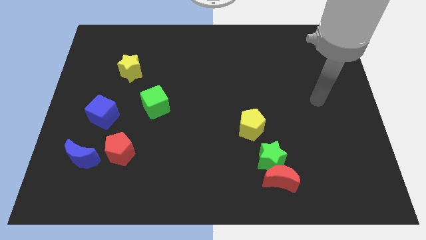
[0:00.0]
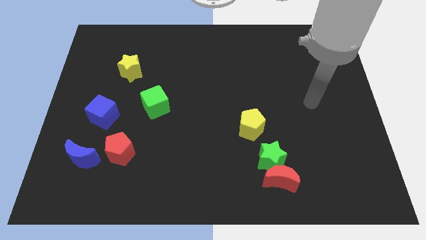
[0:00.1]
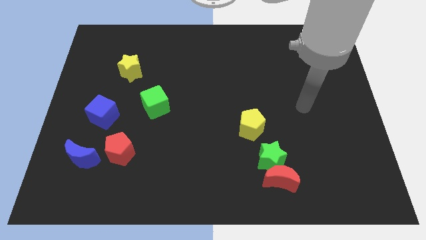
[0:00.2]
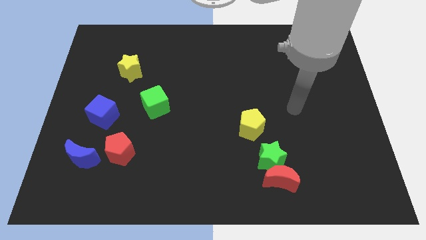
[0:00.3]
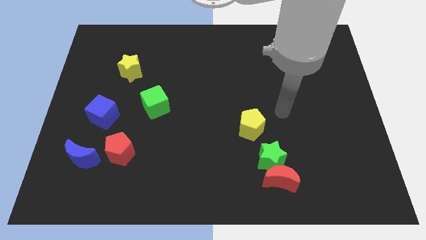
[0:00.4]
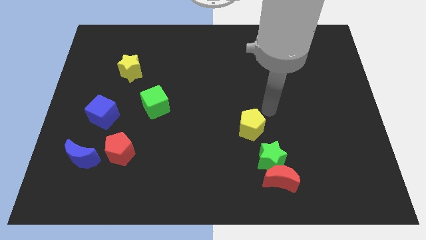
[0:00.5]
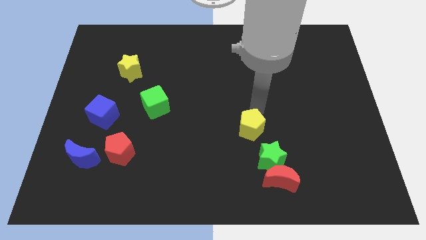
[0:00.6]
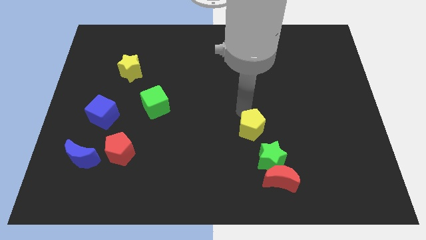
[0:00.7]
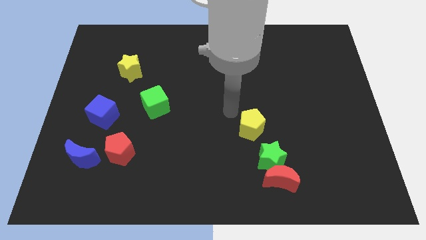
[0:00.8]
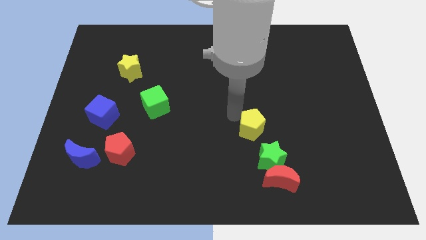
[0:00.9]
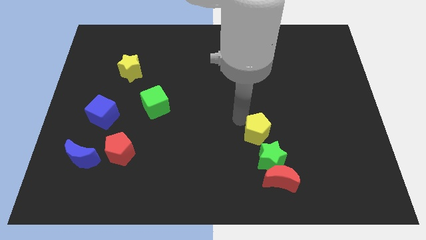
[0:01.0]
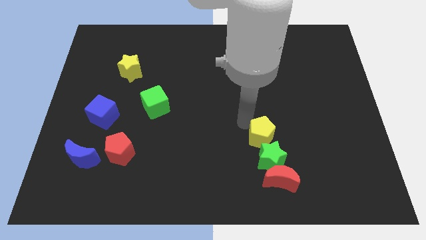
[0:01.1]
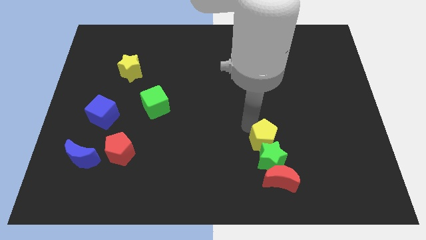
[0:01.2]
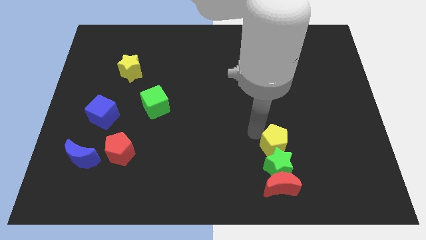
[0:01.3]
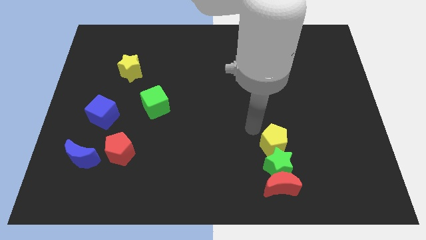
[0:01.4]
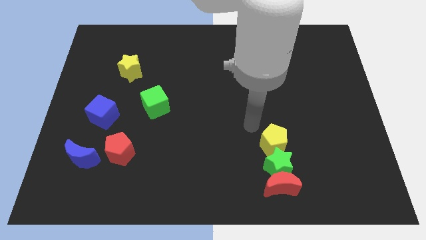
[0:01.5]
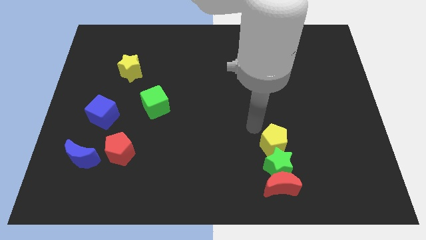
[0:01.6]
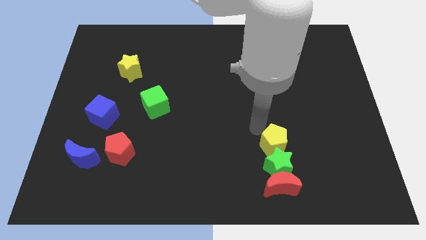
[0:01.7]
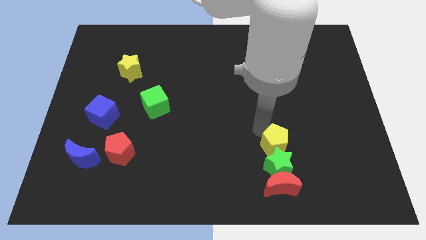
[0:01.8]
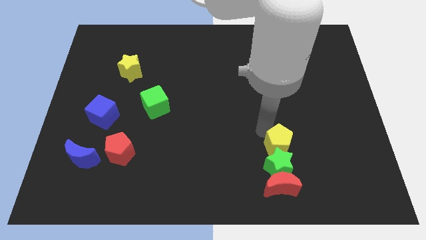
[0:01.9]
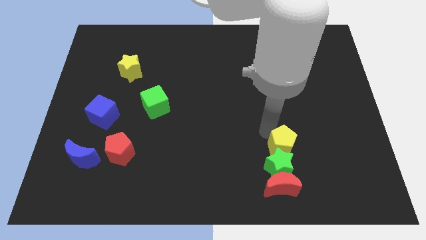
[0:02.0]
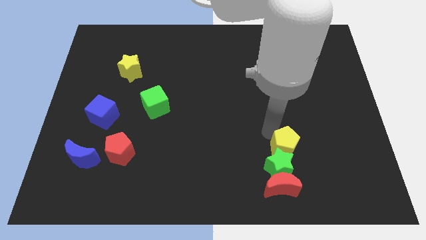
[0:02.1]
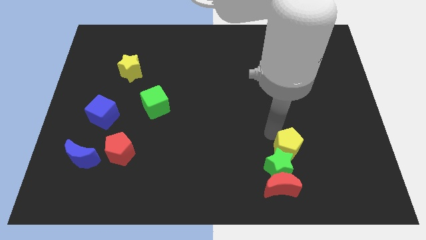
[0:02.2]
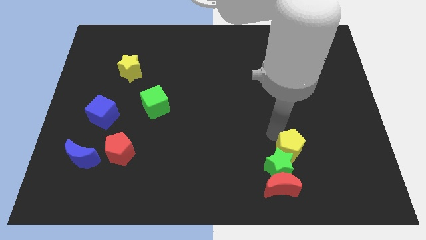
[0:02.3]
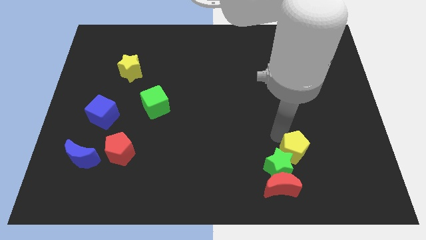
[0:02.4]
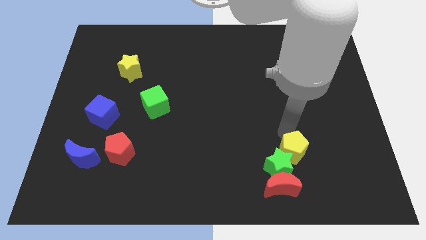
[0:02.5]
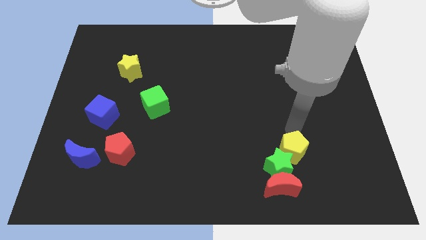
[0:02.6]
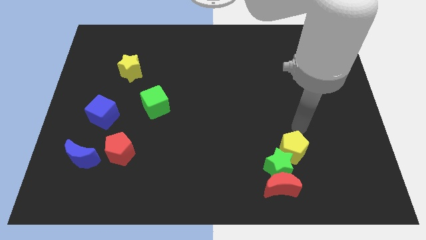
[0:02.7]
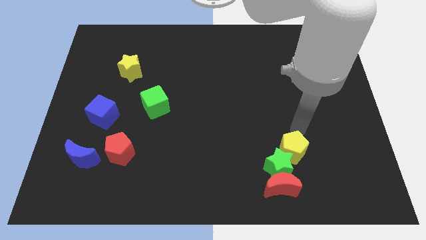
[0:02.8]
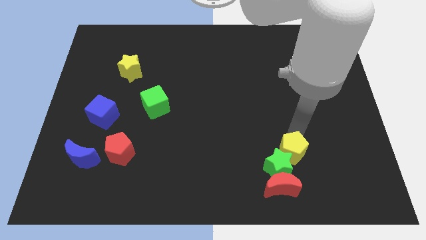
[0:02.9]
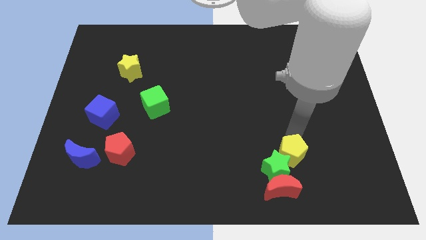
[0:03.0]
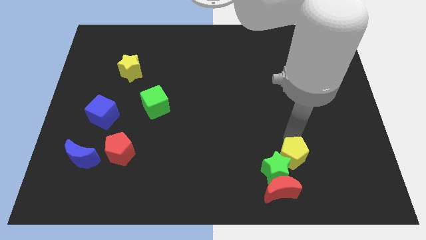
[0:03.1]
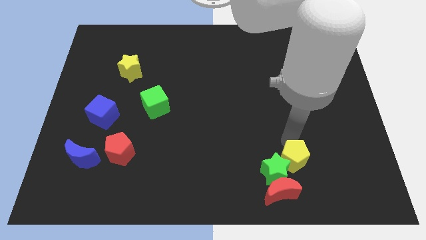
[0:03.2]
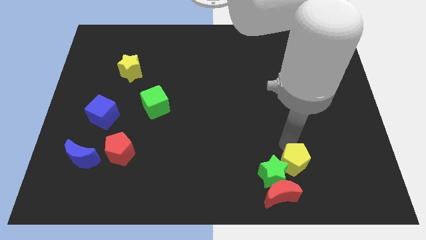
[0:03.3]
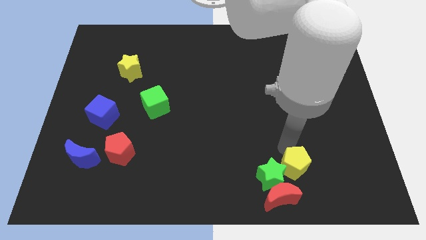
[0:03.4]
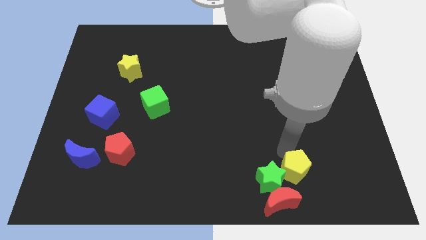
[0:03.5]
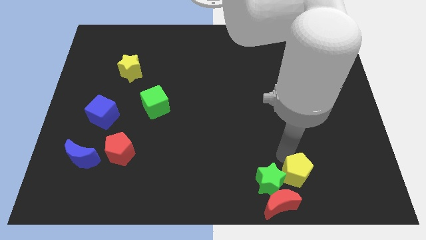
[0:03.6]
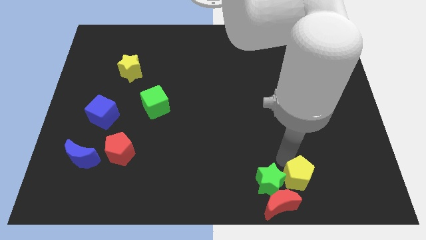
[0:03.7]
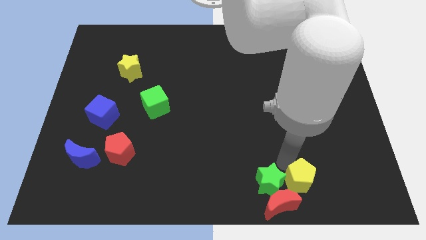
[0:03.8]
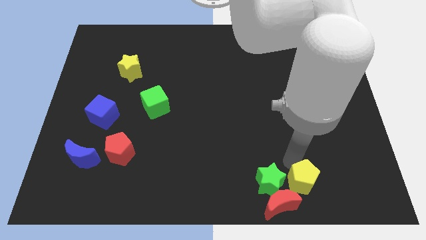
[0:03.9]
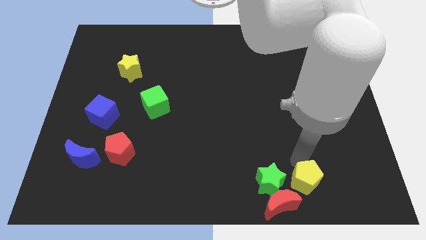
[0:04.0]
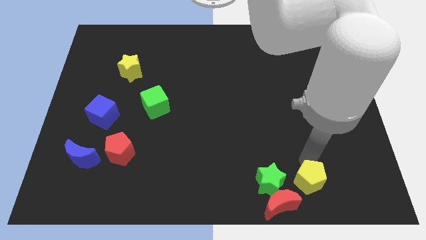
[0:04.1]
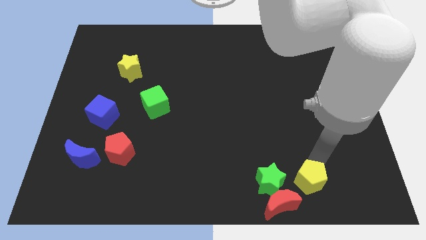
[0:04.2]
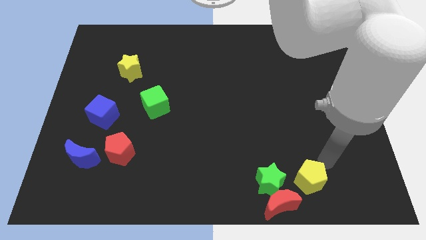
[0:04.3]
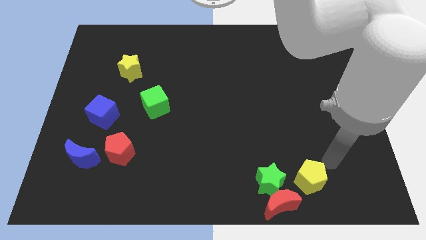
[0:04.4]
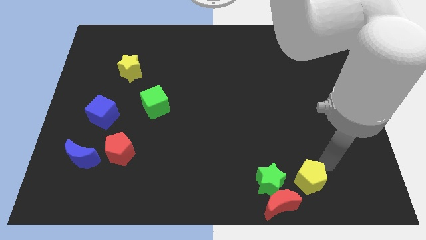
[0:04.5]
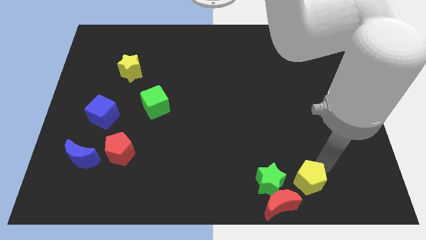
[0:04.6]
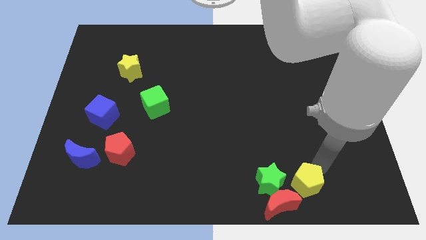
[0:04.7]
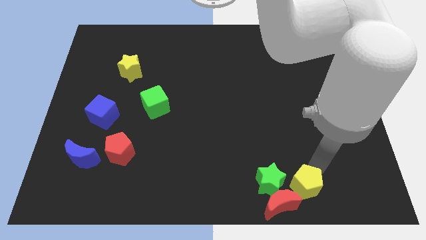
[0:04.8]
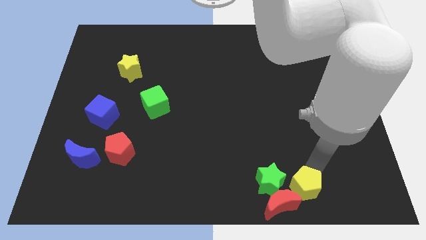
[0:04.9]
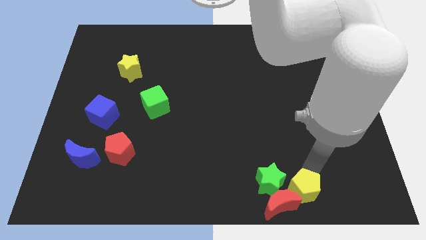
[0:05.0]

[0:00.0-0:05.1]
put the yellow pentagon next to the red moon

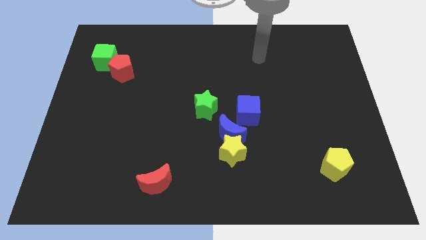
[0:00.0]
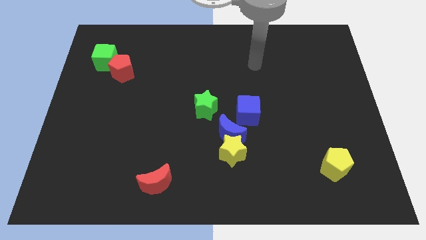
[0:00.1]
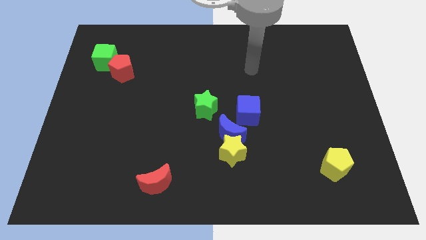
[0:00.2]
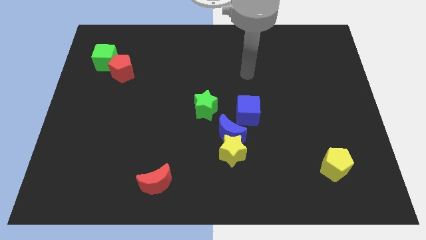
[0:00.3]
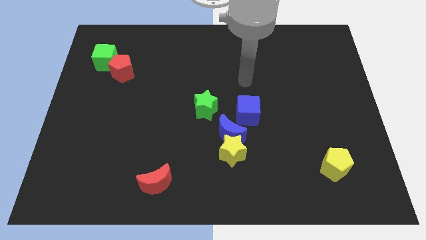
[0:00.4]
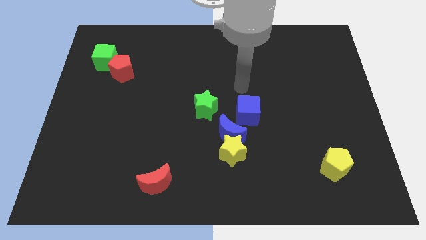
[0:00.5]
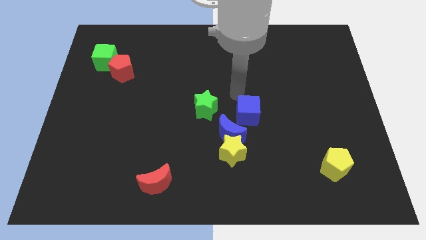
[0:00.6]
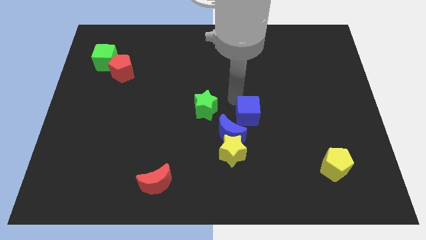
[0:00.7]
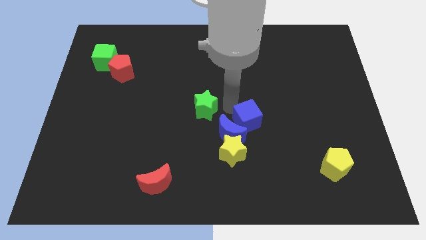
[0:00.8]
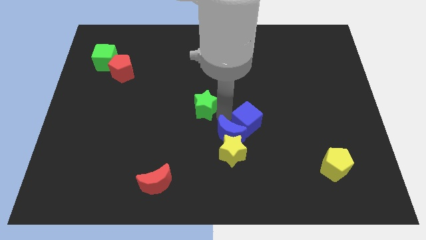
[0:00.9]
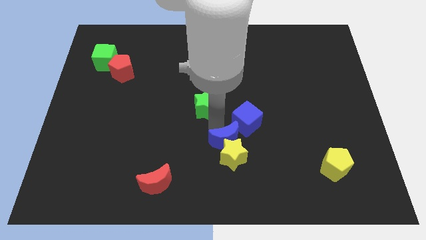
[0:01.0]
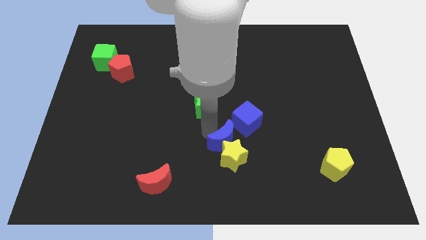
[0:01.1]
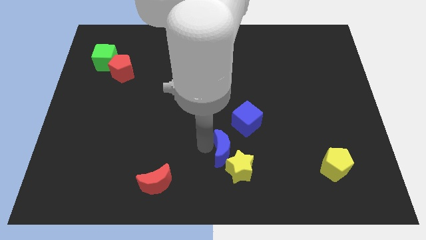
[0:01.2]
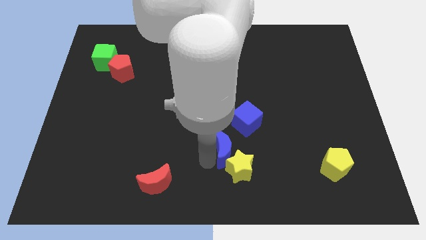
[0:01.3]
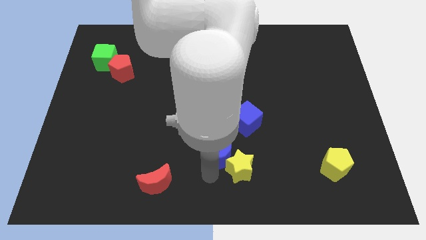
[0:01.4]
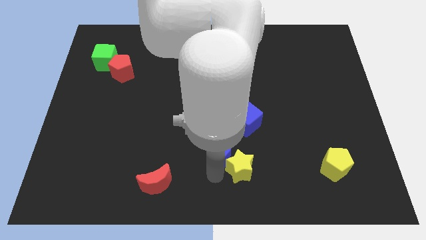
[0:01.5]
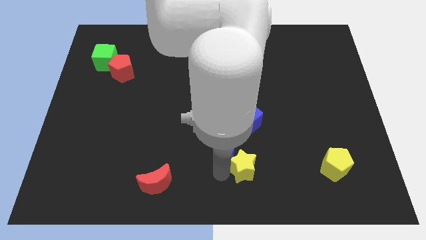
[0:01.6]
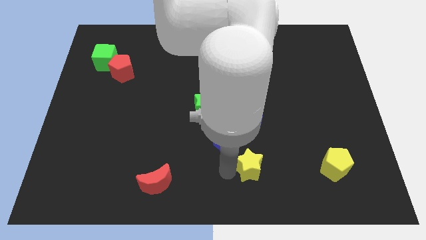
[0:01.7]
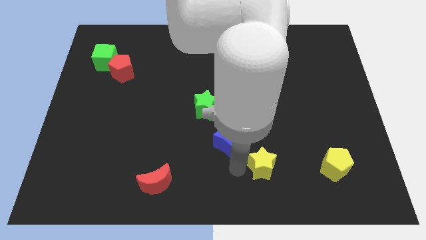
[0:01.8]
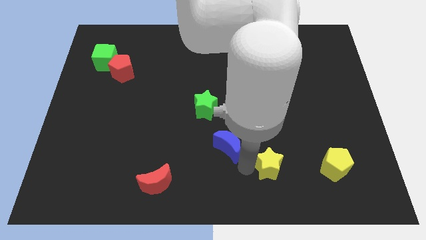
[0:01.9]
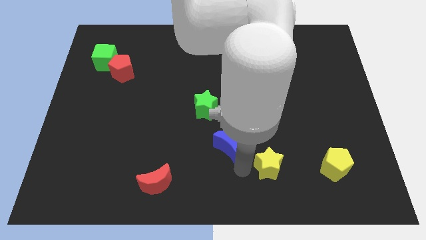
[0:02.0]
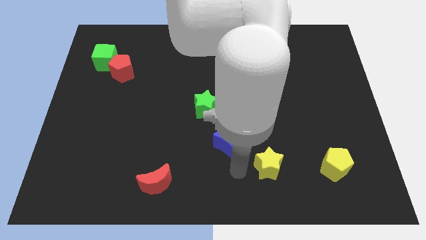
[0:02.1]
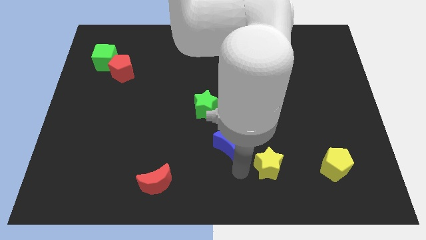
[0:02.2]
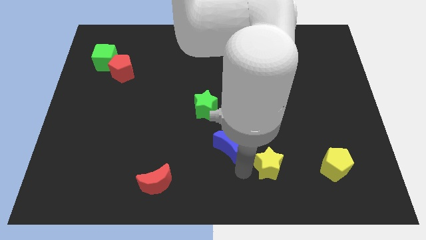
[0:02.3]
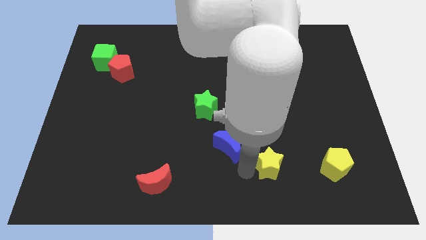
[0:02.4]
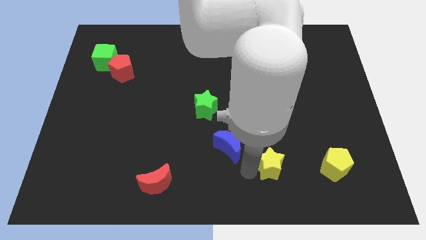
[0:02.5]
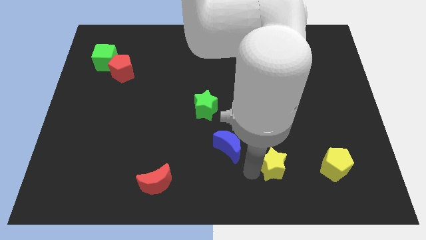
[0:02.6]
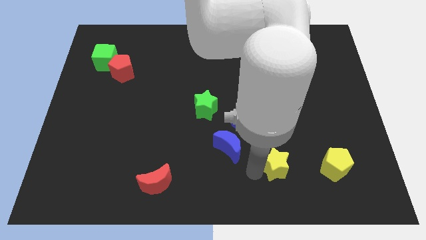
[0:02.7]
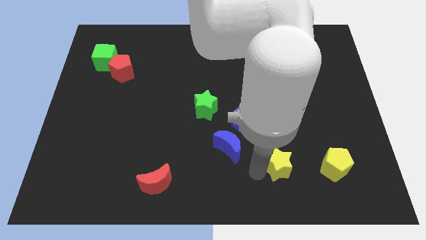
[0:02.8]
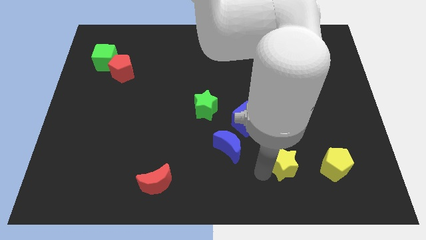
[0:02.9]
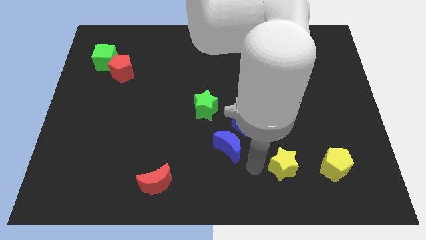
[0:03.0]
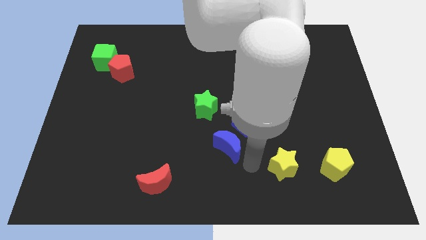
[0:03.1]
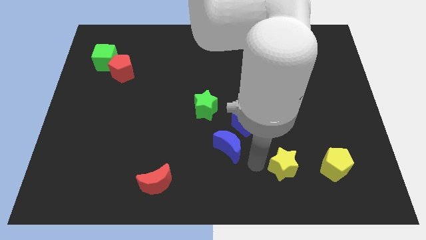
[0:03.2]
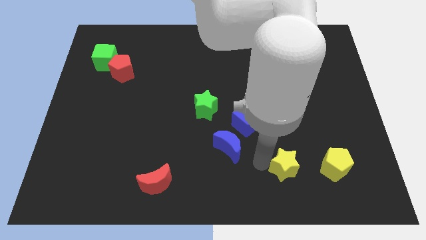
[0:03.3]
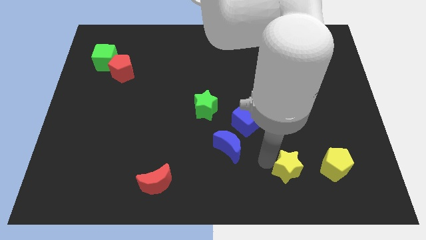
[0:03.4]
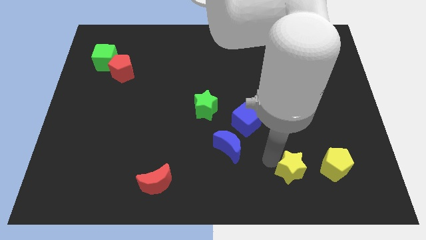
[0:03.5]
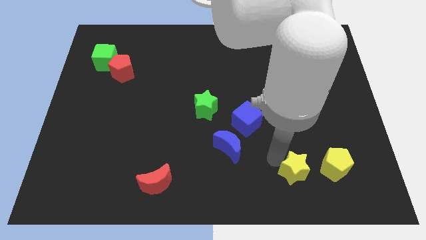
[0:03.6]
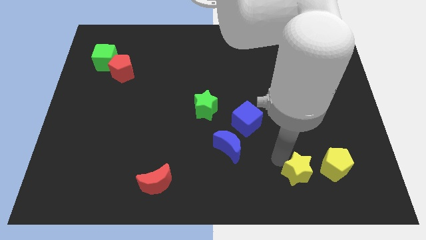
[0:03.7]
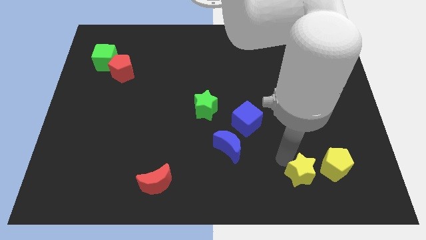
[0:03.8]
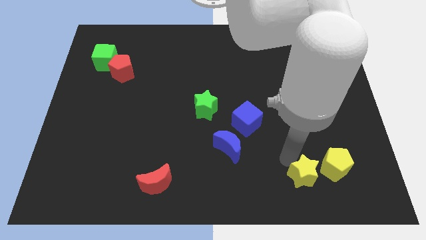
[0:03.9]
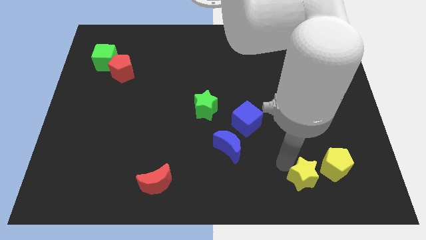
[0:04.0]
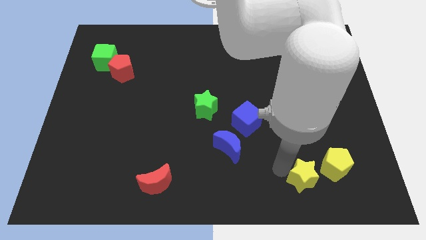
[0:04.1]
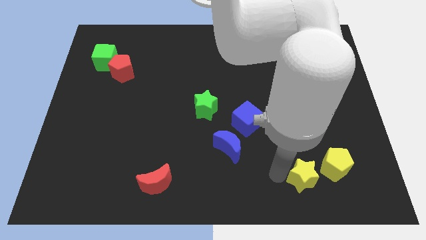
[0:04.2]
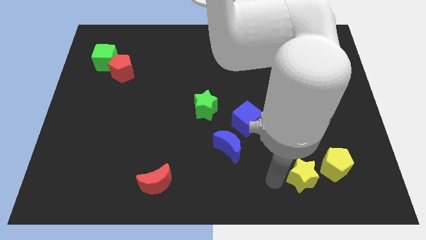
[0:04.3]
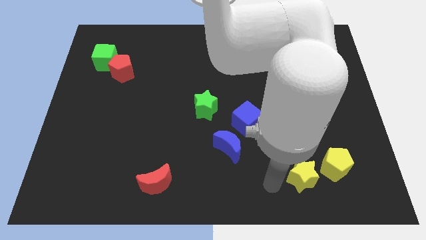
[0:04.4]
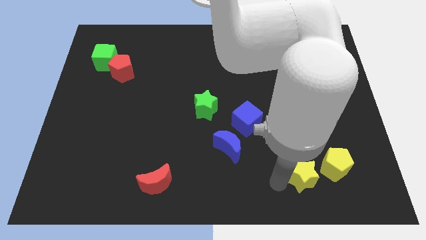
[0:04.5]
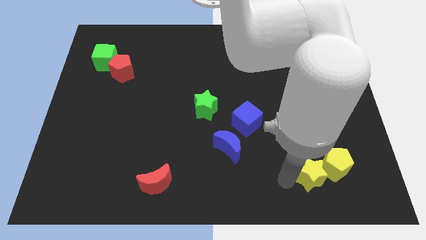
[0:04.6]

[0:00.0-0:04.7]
put the yellow star to the yellow pentagon
